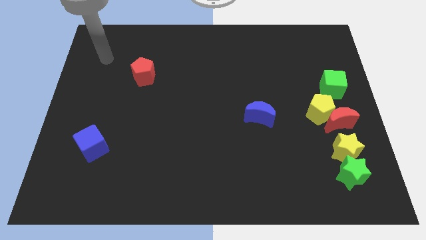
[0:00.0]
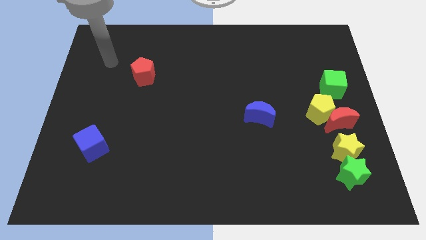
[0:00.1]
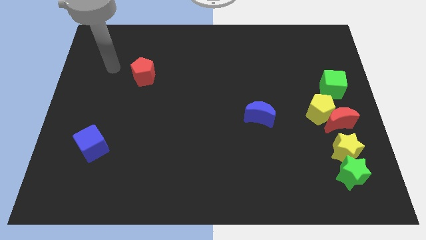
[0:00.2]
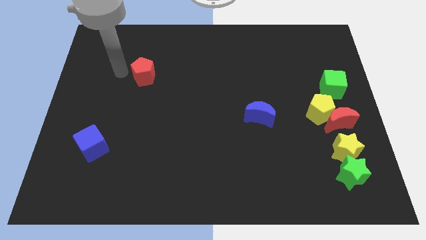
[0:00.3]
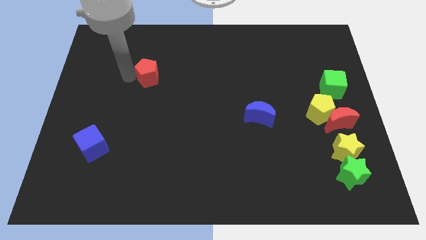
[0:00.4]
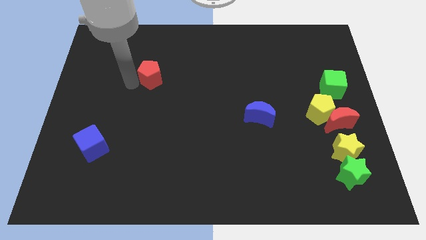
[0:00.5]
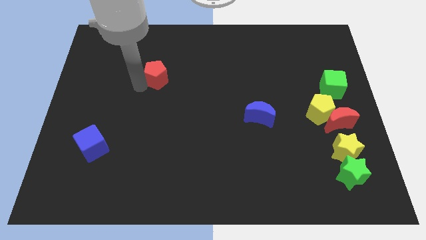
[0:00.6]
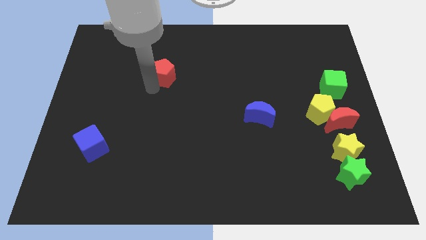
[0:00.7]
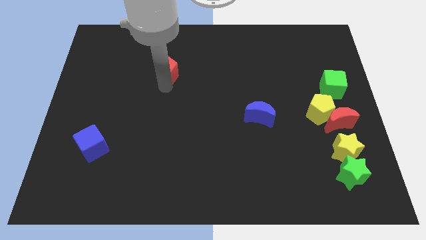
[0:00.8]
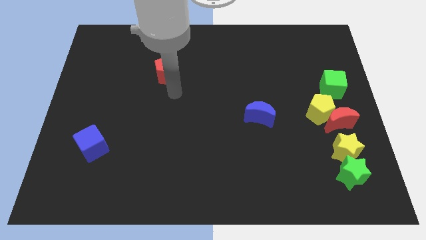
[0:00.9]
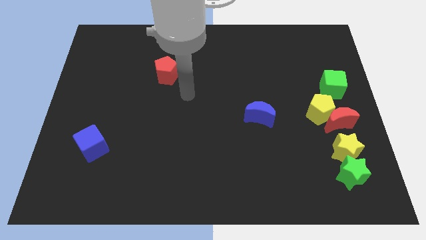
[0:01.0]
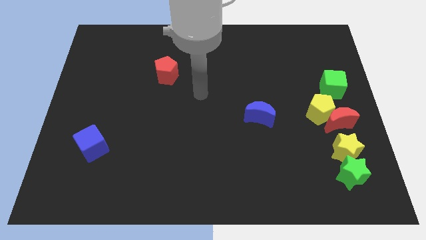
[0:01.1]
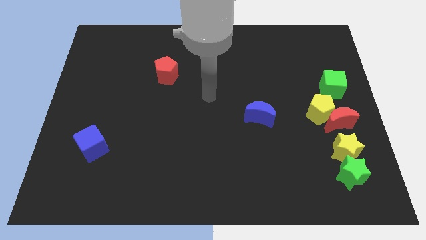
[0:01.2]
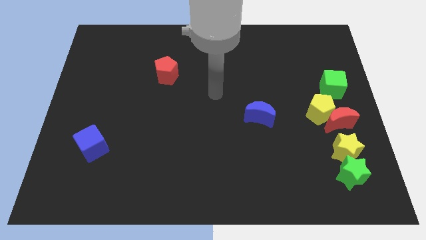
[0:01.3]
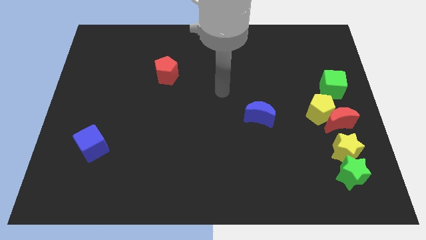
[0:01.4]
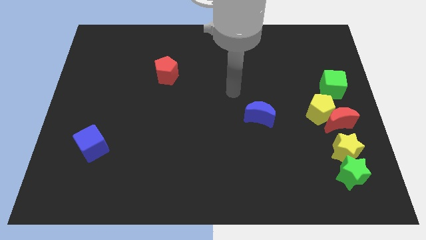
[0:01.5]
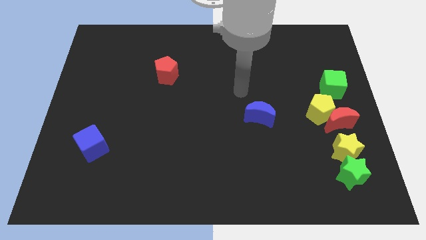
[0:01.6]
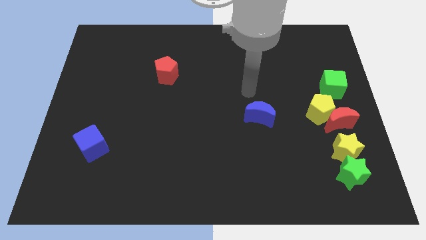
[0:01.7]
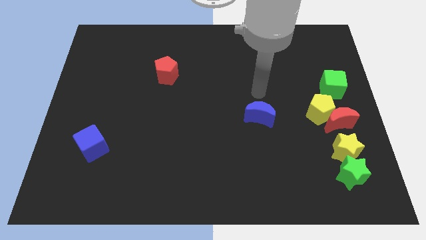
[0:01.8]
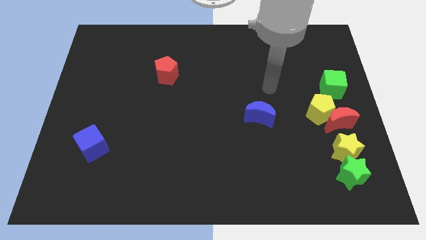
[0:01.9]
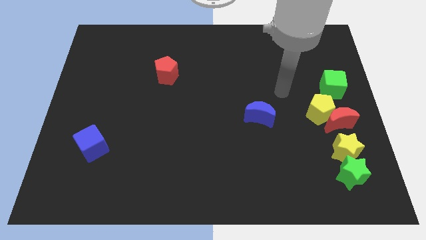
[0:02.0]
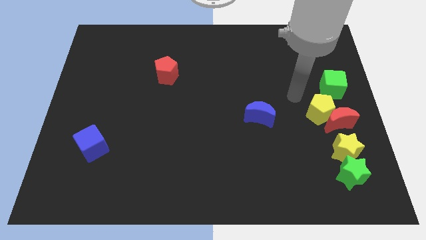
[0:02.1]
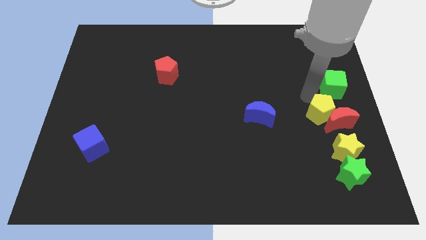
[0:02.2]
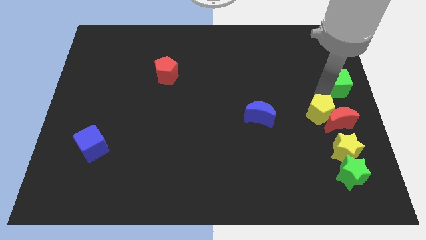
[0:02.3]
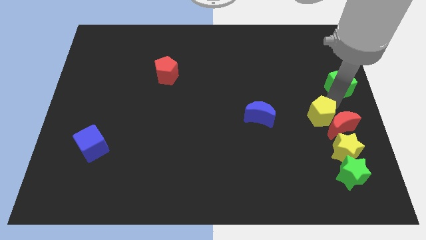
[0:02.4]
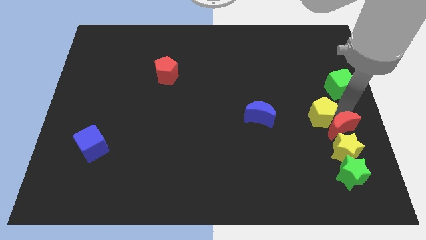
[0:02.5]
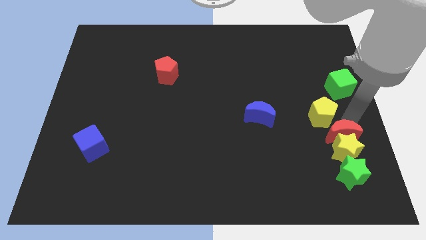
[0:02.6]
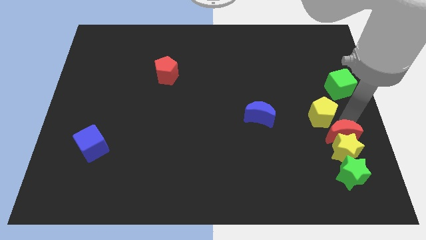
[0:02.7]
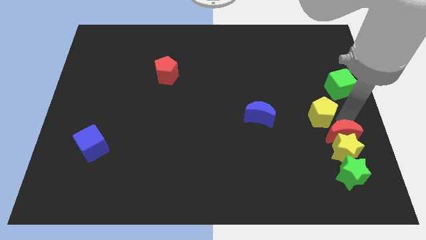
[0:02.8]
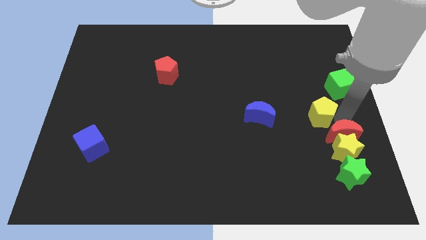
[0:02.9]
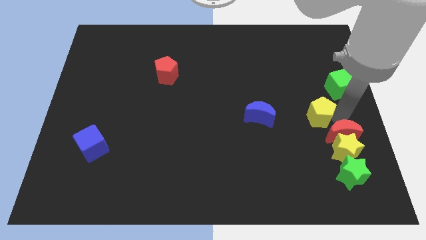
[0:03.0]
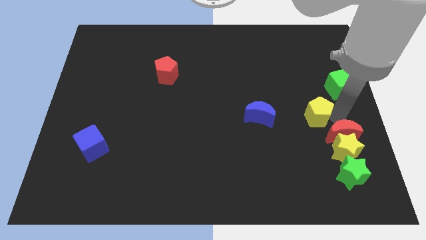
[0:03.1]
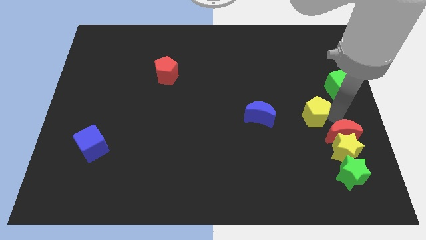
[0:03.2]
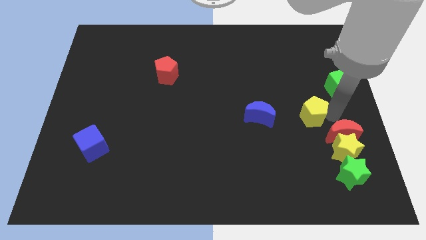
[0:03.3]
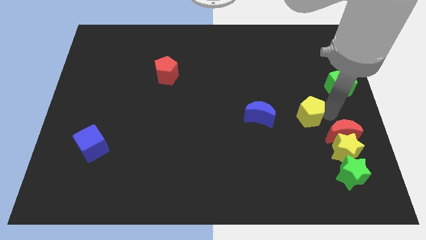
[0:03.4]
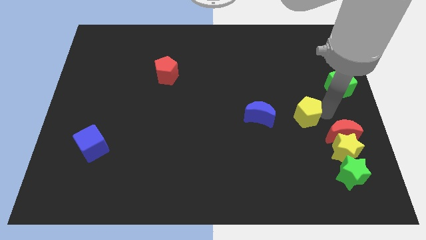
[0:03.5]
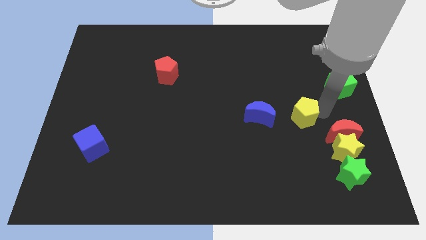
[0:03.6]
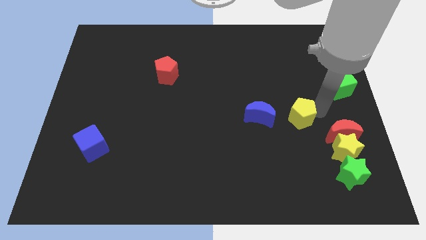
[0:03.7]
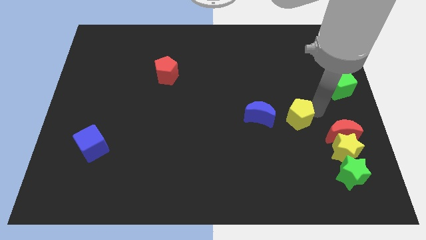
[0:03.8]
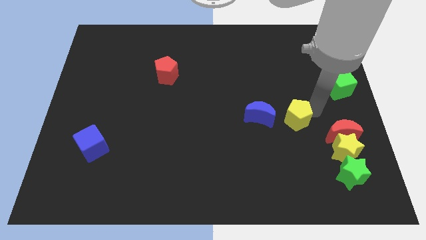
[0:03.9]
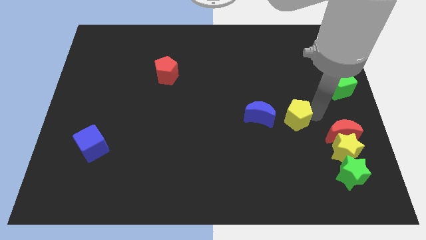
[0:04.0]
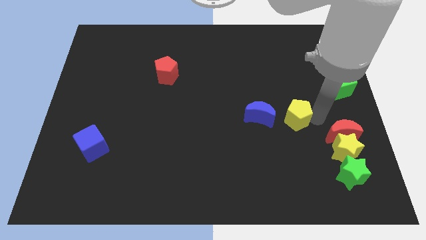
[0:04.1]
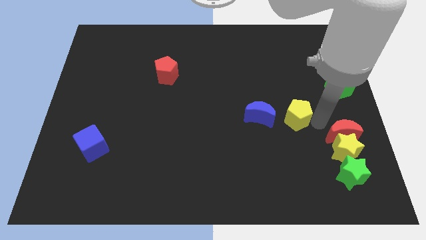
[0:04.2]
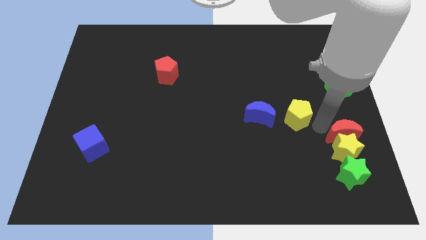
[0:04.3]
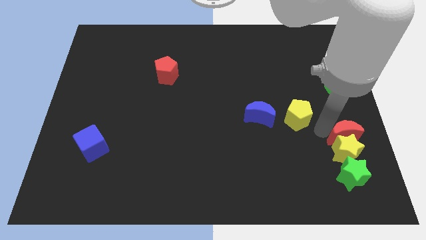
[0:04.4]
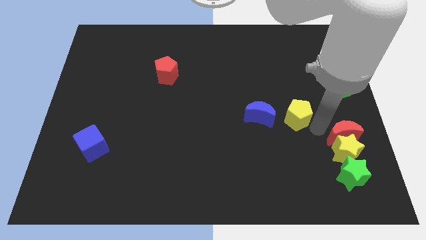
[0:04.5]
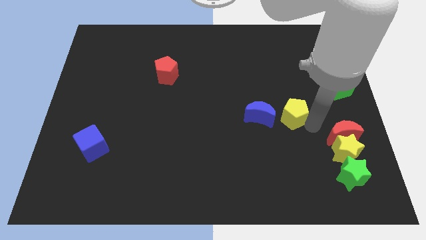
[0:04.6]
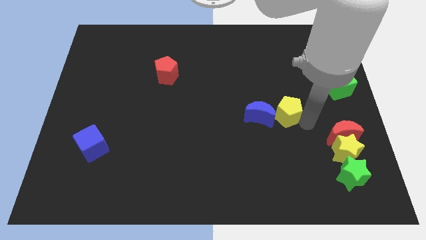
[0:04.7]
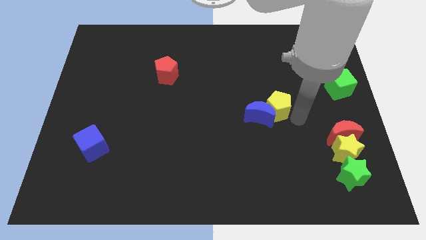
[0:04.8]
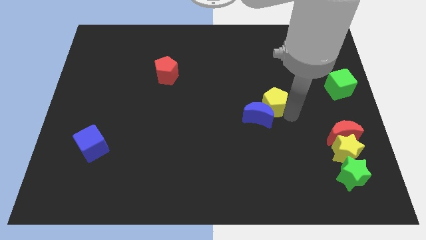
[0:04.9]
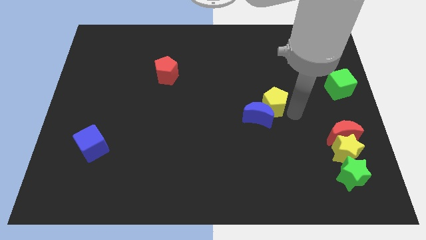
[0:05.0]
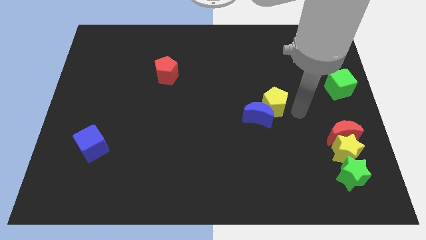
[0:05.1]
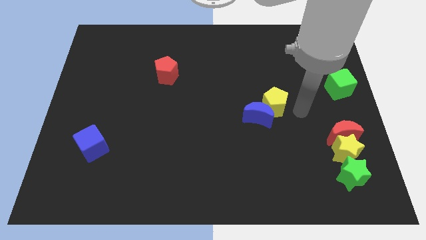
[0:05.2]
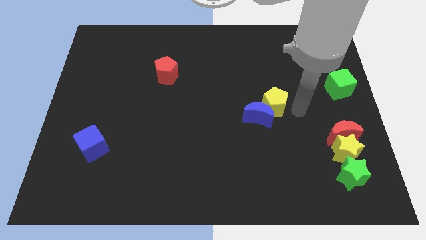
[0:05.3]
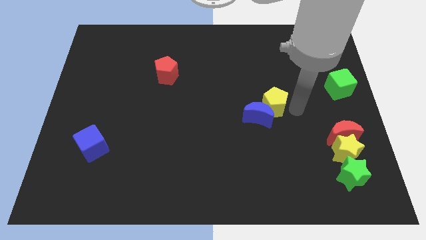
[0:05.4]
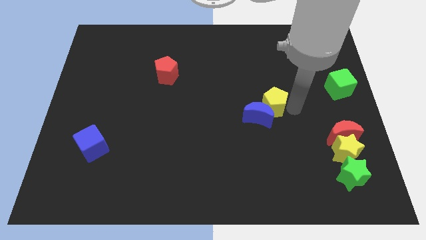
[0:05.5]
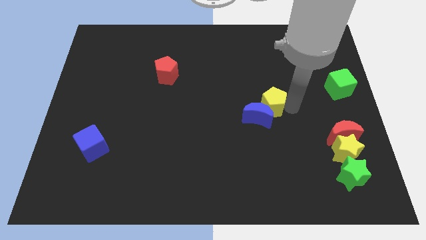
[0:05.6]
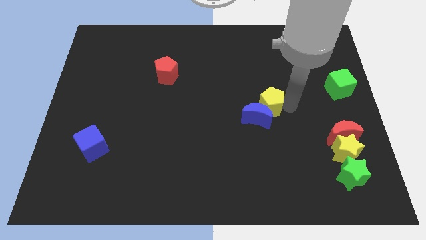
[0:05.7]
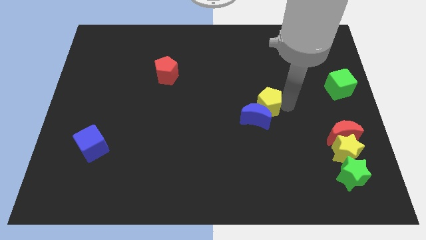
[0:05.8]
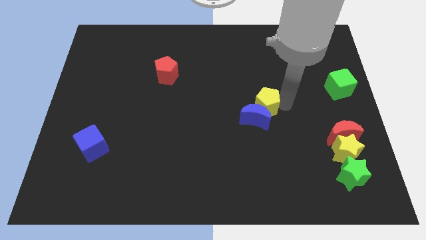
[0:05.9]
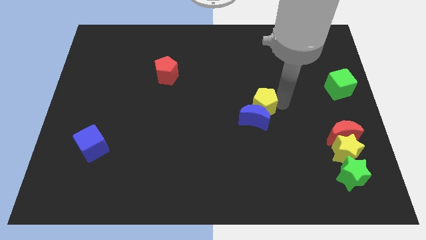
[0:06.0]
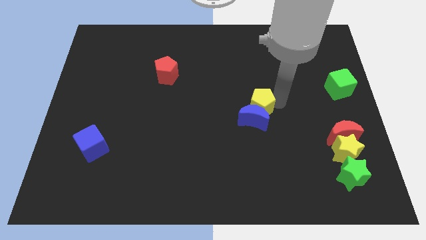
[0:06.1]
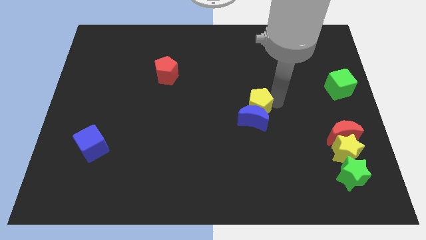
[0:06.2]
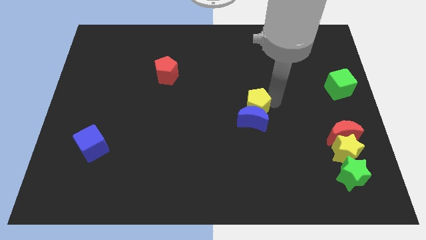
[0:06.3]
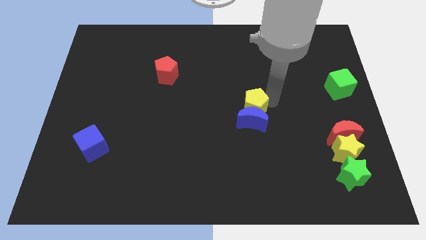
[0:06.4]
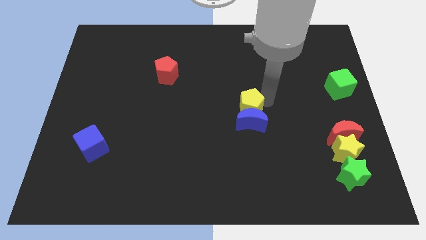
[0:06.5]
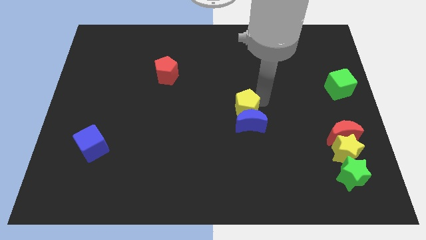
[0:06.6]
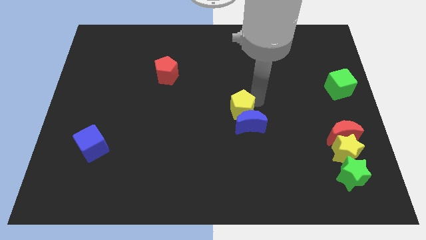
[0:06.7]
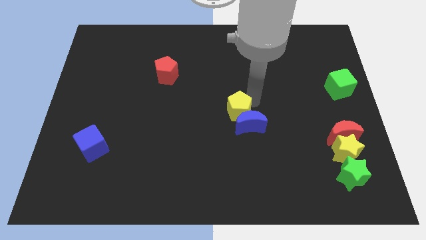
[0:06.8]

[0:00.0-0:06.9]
put the yellow pentagon left of the blue moon
